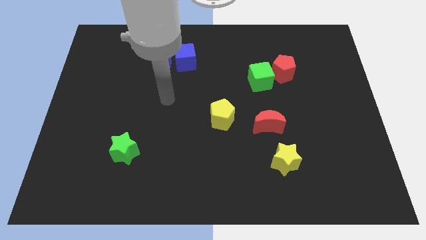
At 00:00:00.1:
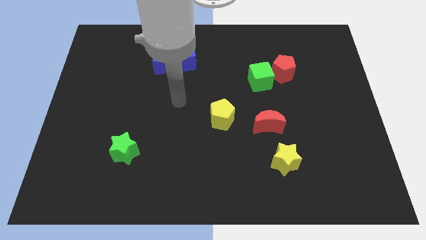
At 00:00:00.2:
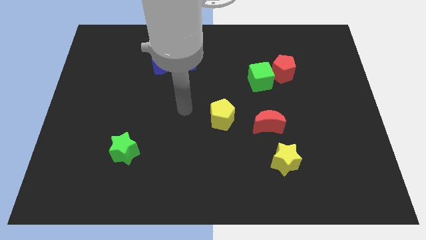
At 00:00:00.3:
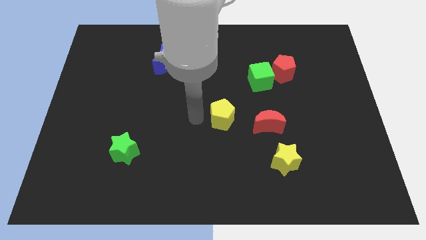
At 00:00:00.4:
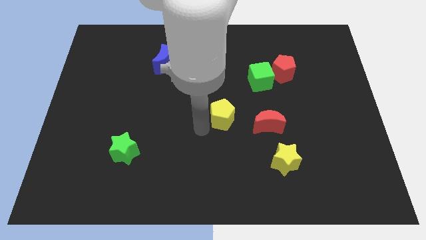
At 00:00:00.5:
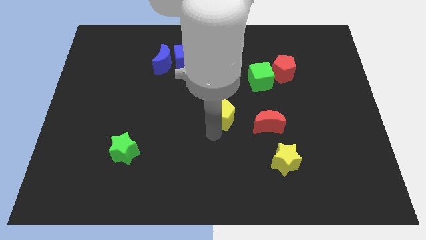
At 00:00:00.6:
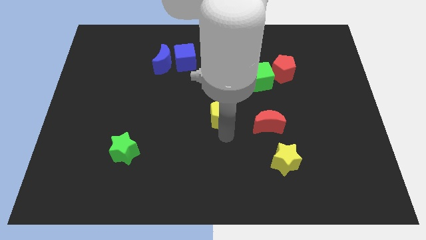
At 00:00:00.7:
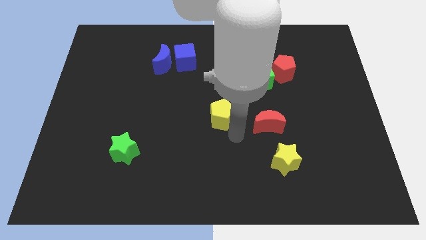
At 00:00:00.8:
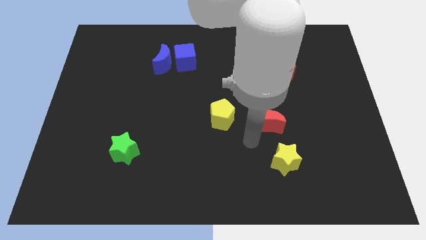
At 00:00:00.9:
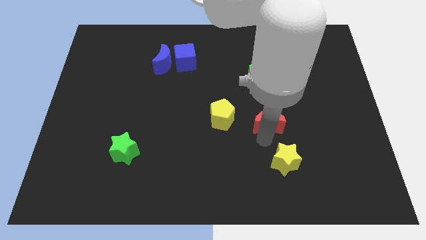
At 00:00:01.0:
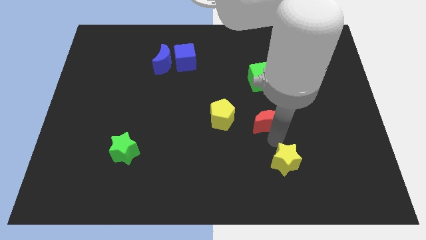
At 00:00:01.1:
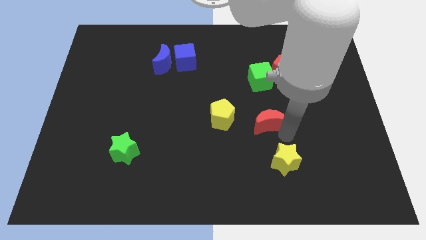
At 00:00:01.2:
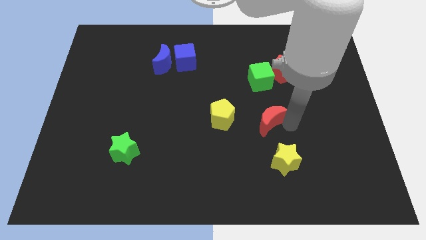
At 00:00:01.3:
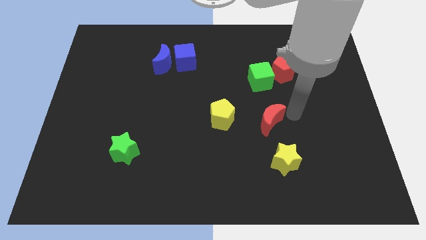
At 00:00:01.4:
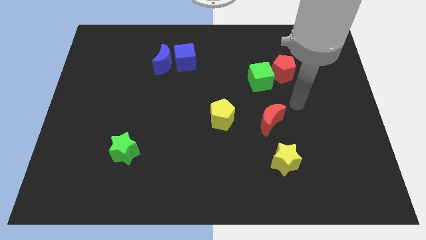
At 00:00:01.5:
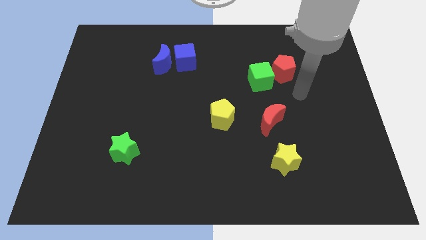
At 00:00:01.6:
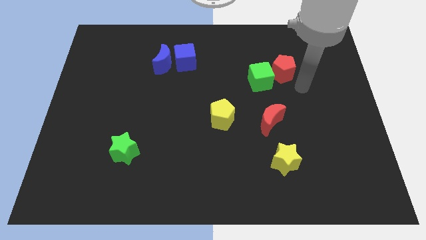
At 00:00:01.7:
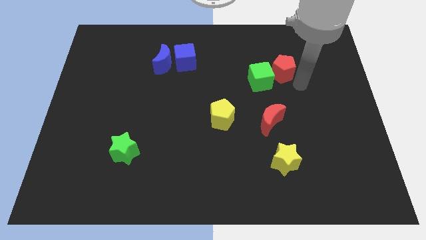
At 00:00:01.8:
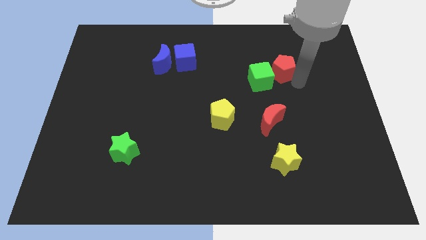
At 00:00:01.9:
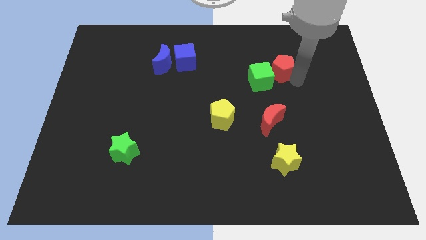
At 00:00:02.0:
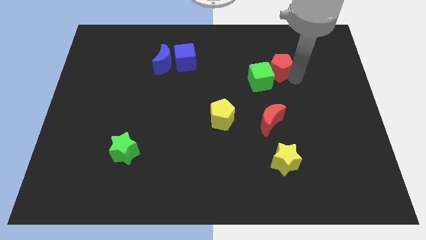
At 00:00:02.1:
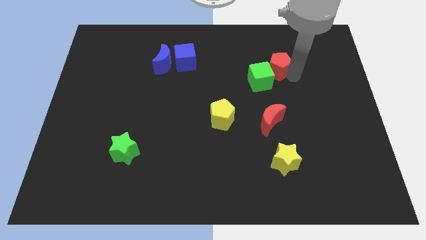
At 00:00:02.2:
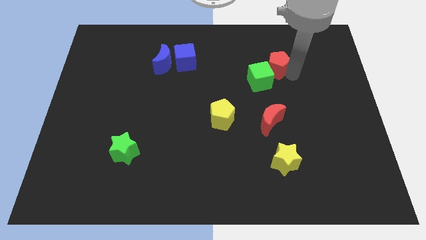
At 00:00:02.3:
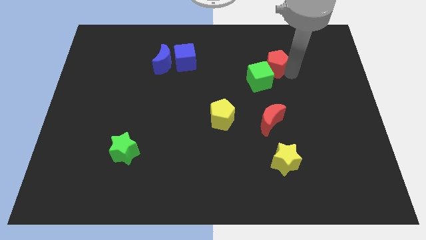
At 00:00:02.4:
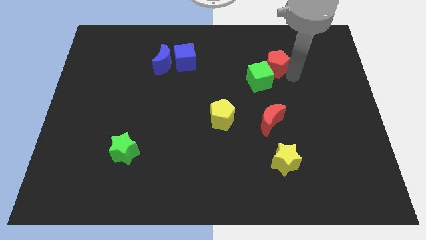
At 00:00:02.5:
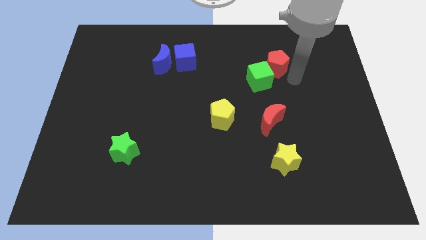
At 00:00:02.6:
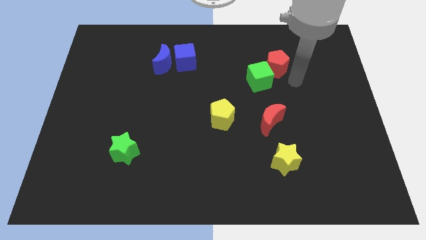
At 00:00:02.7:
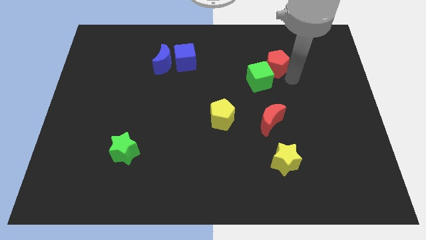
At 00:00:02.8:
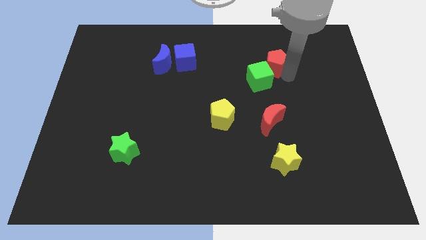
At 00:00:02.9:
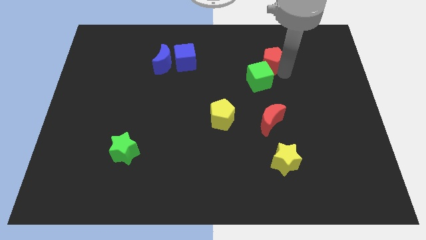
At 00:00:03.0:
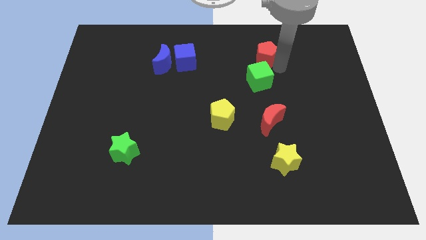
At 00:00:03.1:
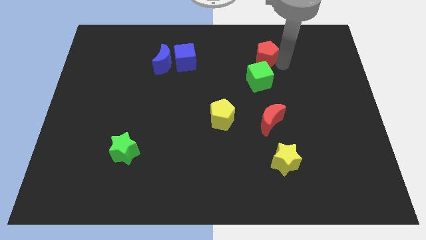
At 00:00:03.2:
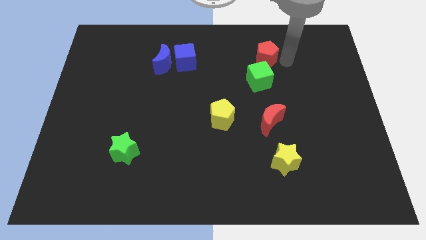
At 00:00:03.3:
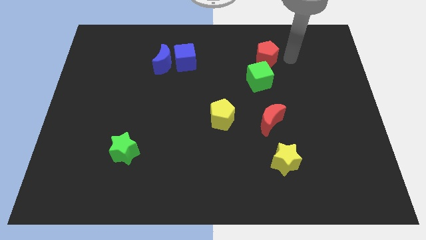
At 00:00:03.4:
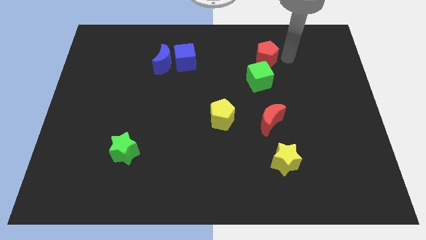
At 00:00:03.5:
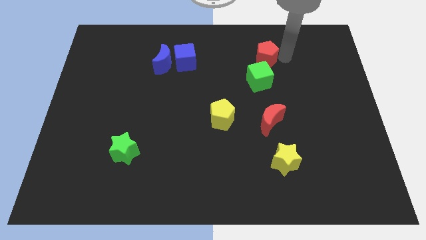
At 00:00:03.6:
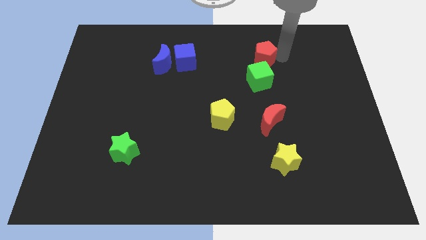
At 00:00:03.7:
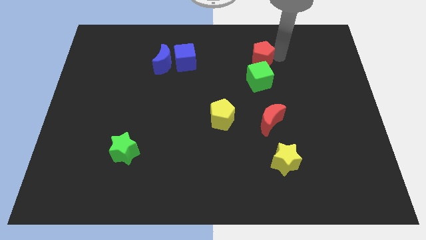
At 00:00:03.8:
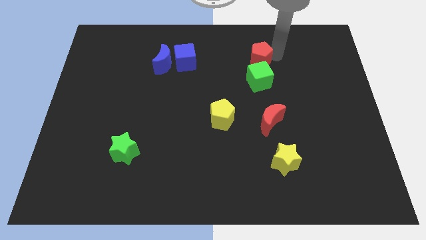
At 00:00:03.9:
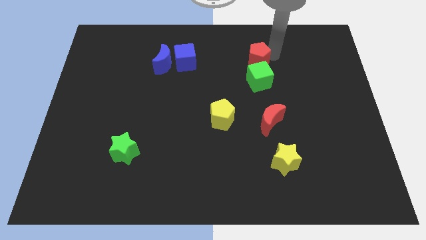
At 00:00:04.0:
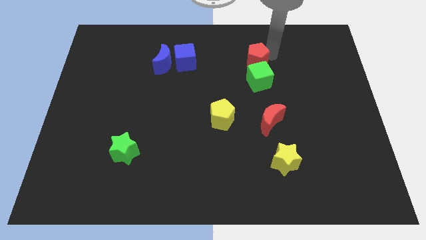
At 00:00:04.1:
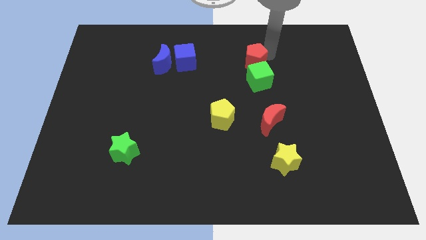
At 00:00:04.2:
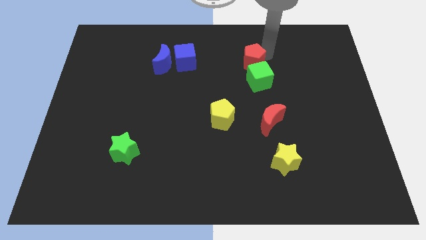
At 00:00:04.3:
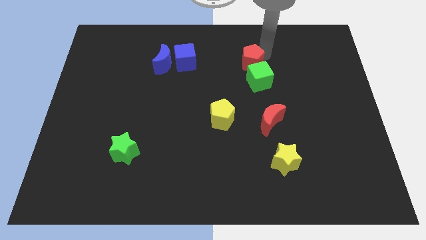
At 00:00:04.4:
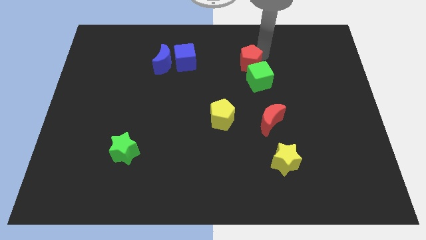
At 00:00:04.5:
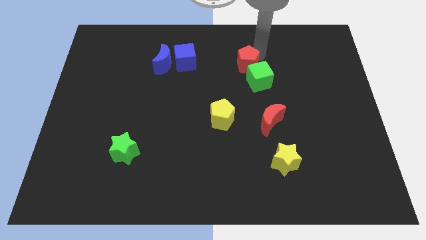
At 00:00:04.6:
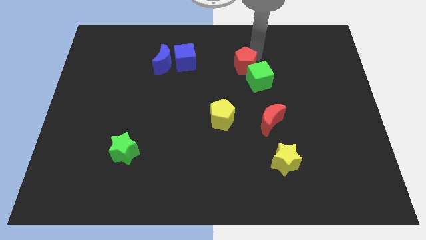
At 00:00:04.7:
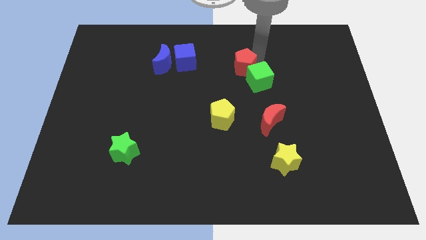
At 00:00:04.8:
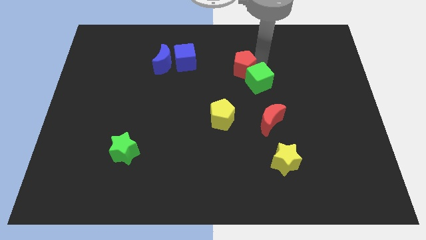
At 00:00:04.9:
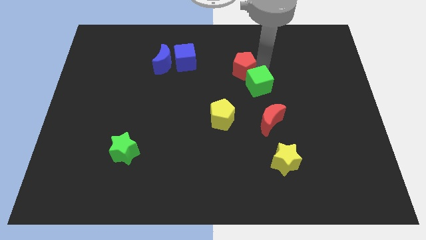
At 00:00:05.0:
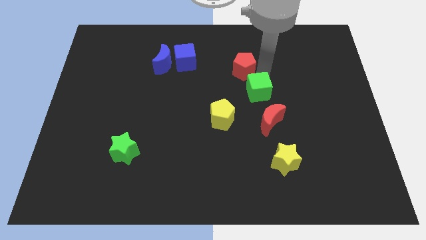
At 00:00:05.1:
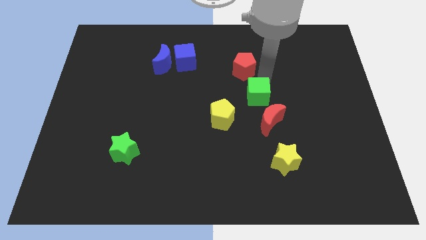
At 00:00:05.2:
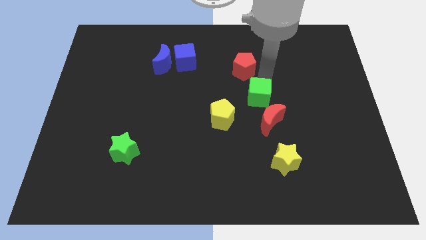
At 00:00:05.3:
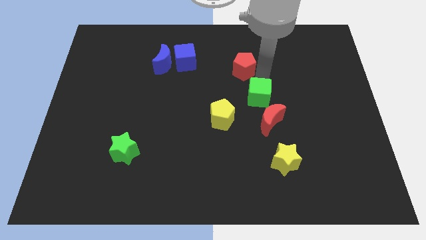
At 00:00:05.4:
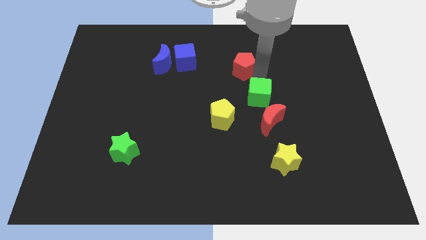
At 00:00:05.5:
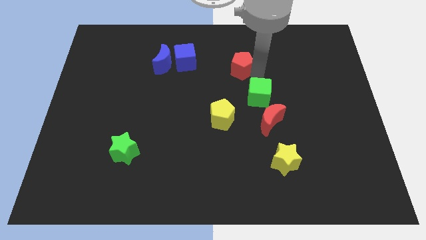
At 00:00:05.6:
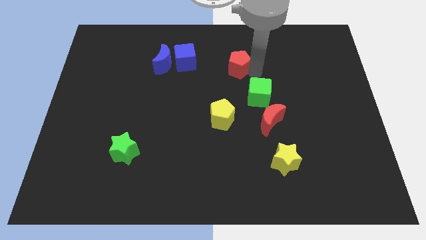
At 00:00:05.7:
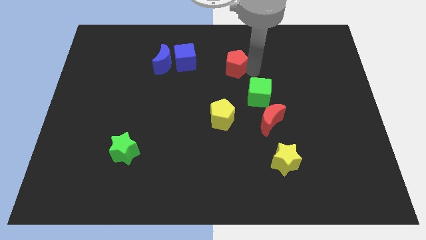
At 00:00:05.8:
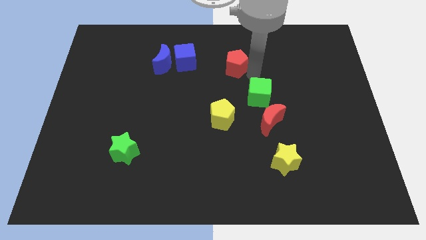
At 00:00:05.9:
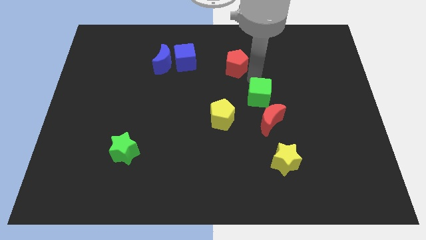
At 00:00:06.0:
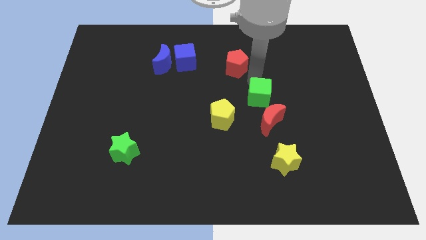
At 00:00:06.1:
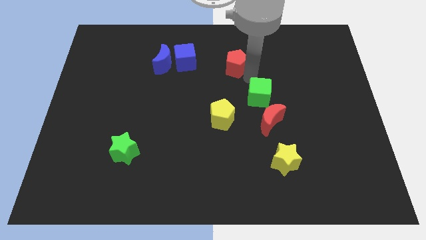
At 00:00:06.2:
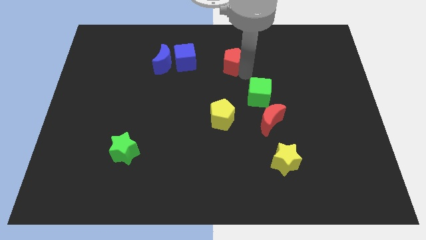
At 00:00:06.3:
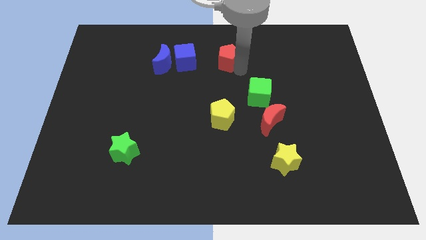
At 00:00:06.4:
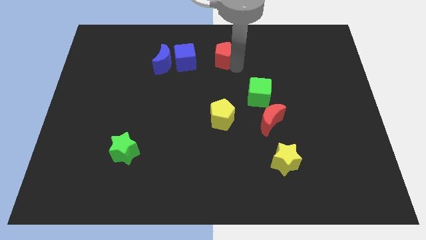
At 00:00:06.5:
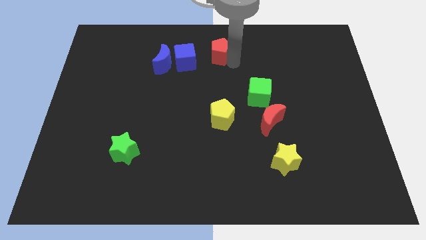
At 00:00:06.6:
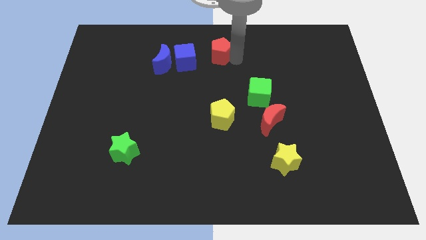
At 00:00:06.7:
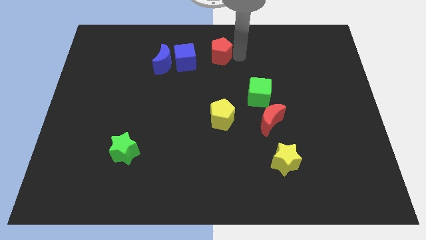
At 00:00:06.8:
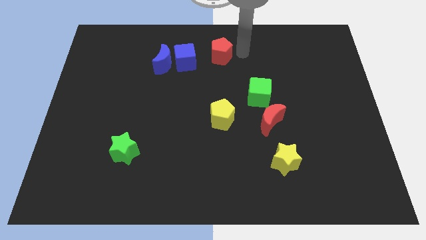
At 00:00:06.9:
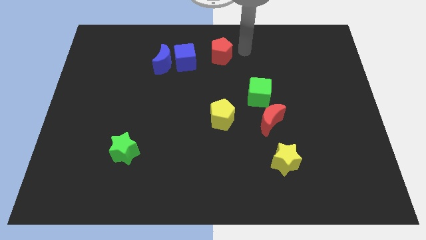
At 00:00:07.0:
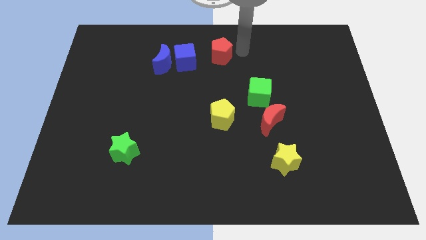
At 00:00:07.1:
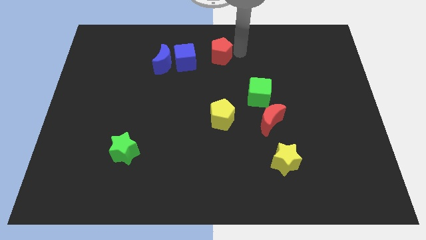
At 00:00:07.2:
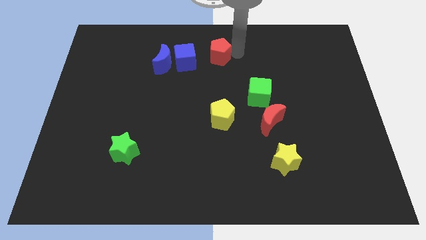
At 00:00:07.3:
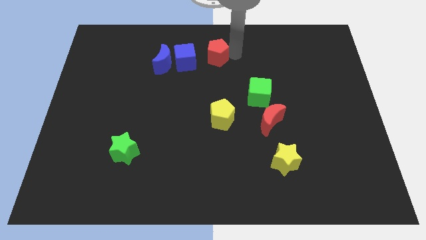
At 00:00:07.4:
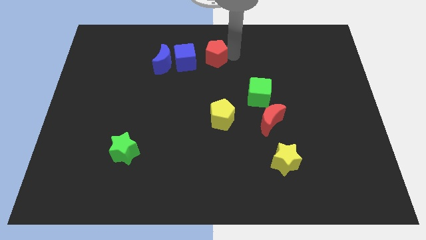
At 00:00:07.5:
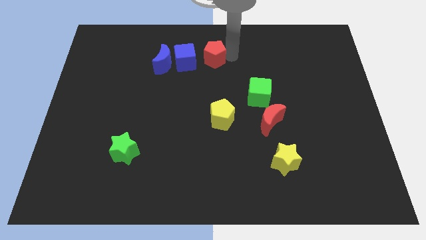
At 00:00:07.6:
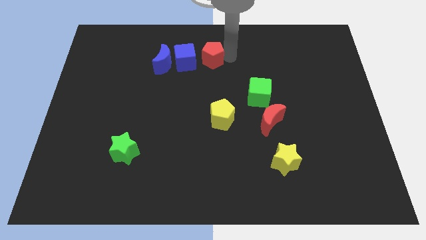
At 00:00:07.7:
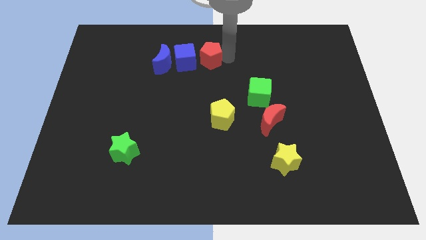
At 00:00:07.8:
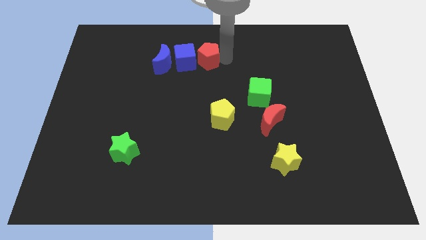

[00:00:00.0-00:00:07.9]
push the red pentagon next to the blue cube
